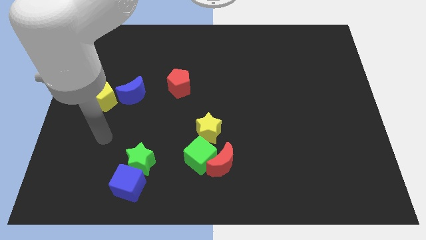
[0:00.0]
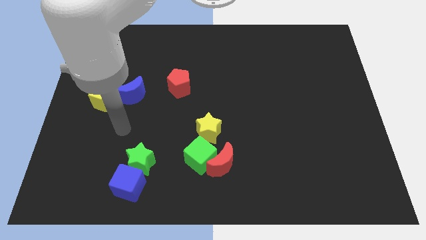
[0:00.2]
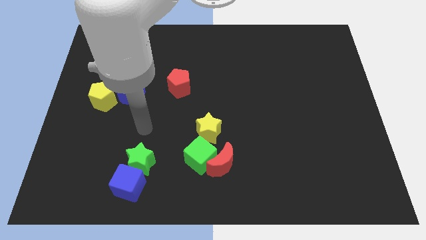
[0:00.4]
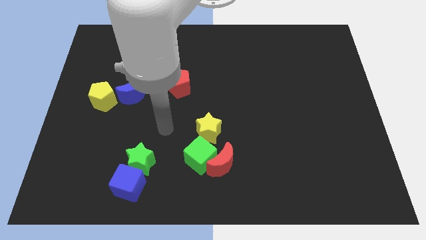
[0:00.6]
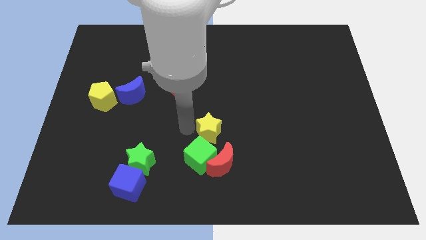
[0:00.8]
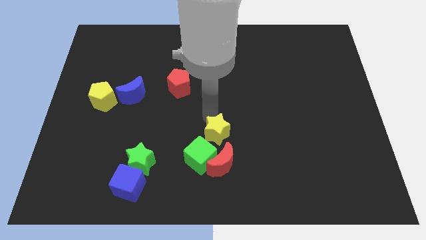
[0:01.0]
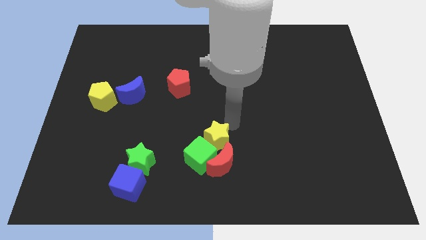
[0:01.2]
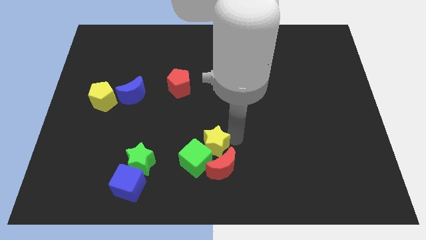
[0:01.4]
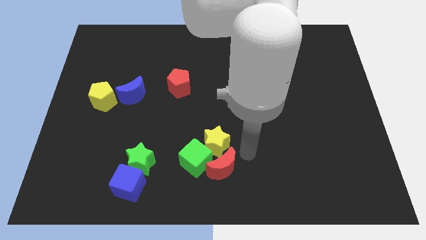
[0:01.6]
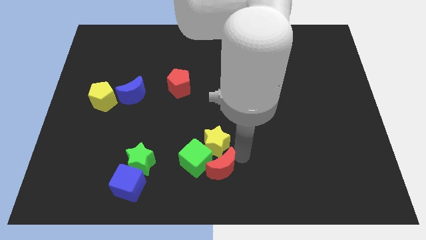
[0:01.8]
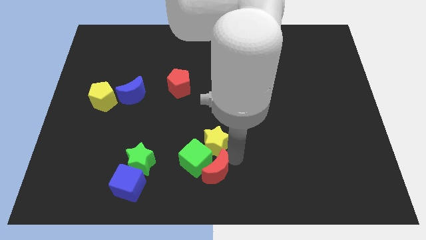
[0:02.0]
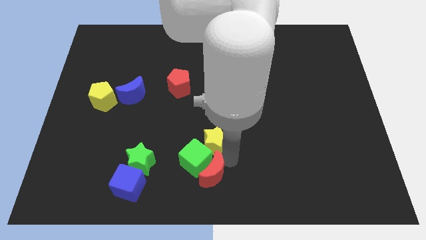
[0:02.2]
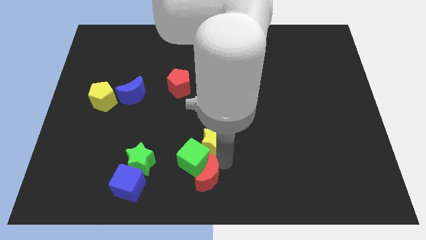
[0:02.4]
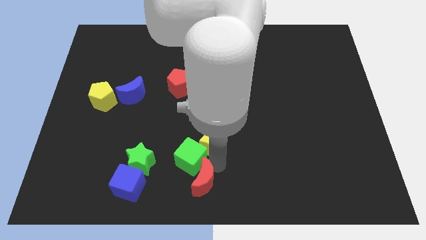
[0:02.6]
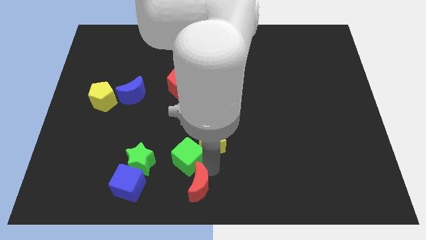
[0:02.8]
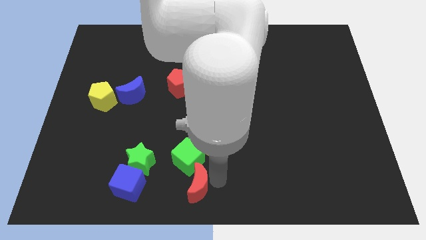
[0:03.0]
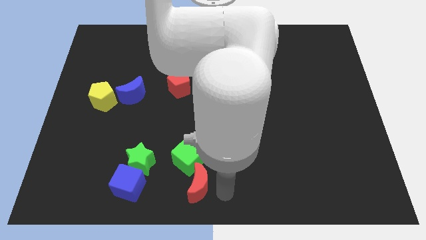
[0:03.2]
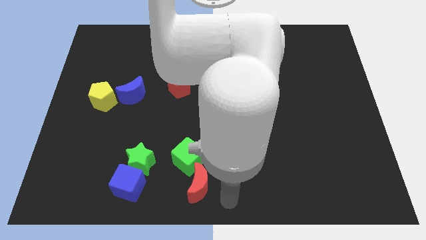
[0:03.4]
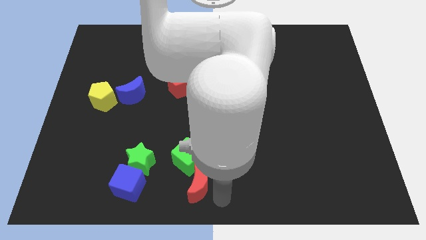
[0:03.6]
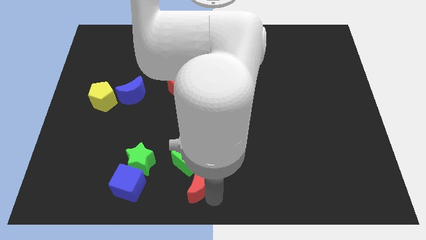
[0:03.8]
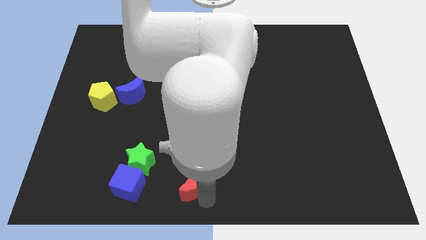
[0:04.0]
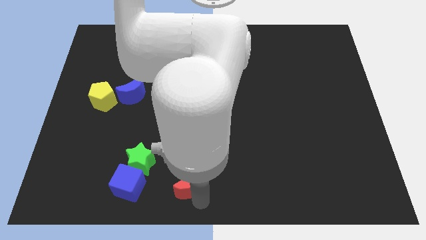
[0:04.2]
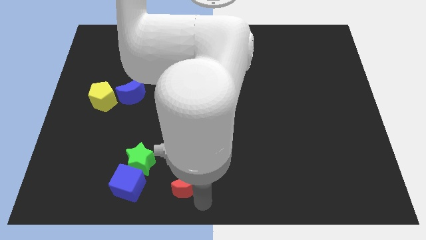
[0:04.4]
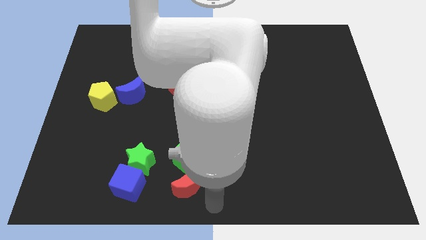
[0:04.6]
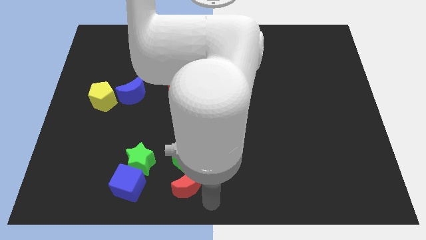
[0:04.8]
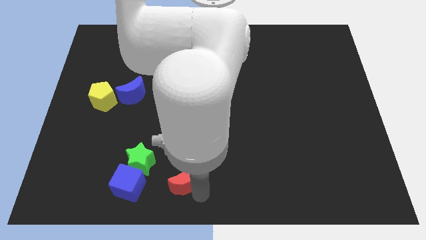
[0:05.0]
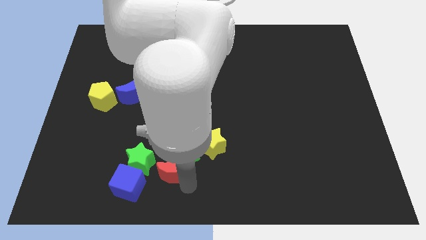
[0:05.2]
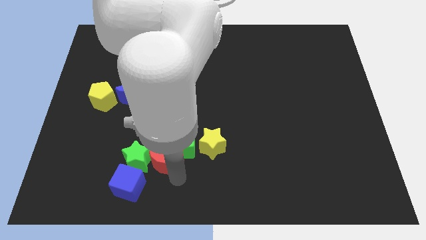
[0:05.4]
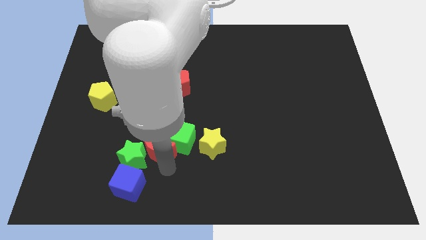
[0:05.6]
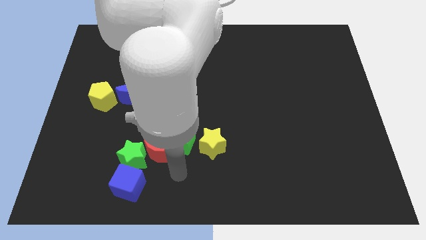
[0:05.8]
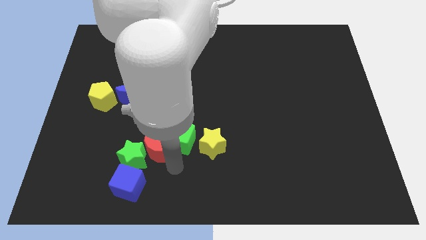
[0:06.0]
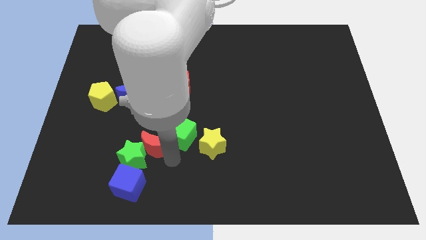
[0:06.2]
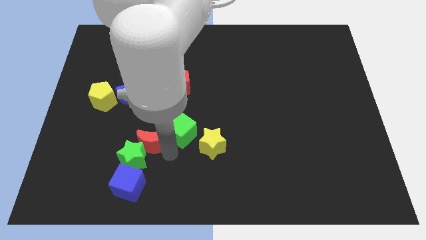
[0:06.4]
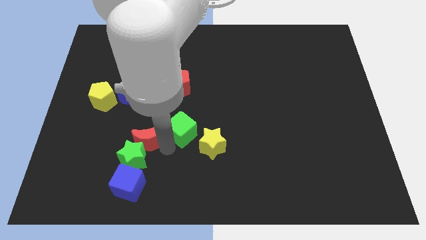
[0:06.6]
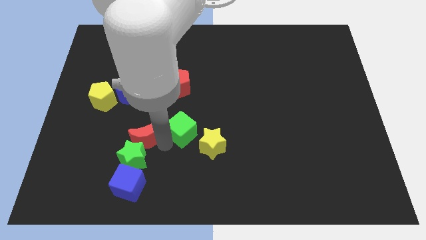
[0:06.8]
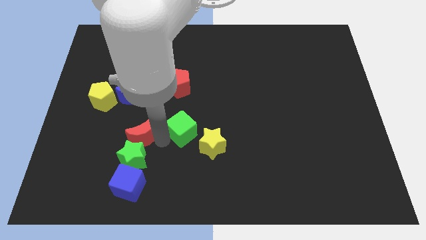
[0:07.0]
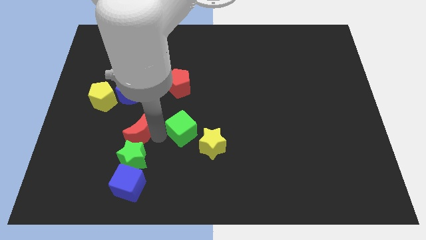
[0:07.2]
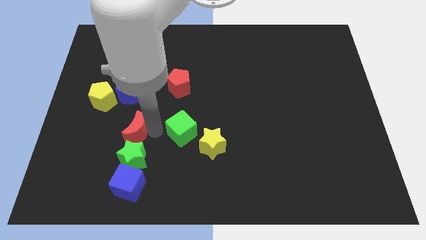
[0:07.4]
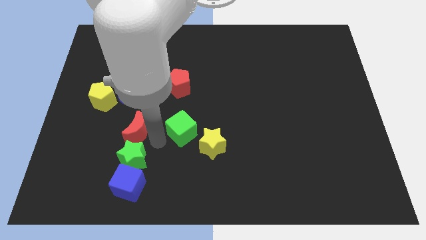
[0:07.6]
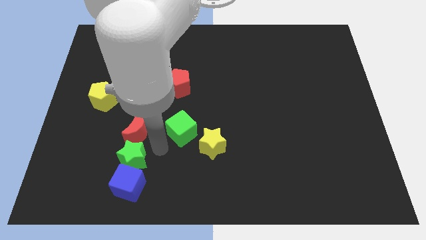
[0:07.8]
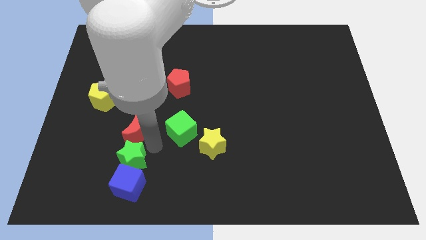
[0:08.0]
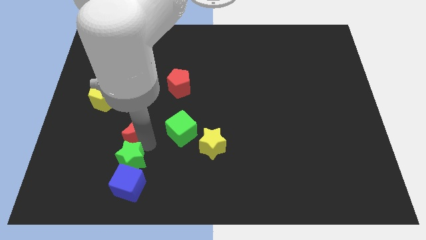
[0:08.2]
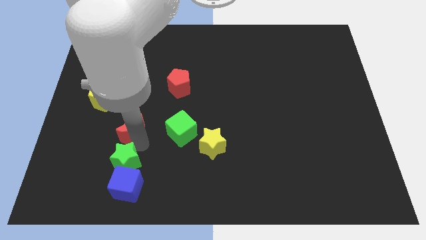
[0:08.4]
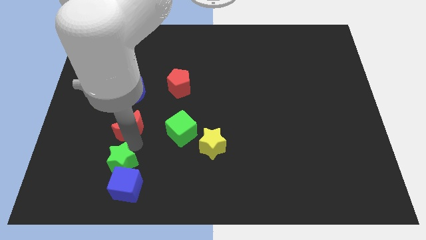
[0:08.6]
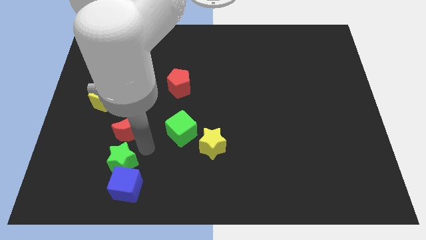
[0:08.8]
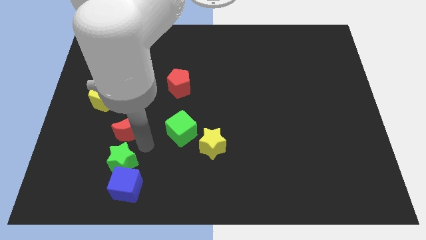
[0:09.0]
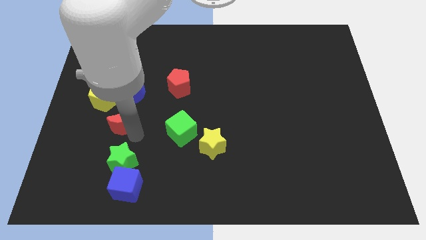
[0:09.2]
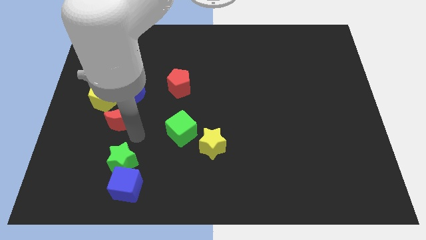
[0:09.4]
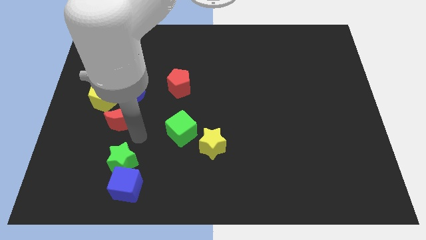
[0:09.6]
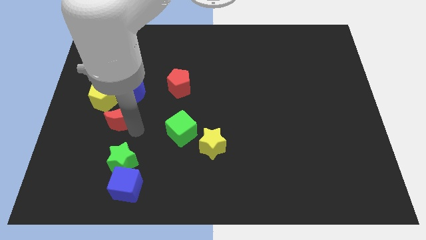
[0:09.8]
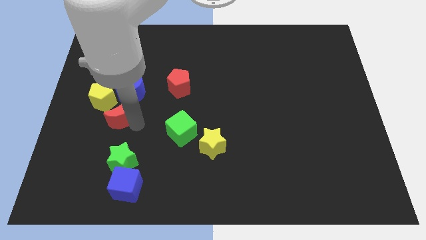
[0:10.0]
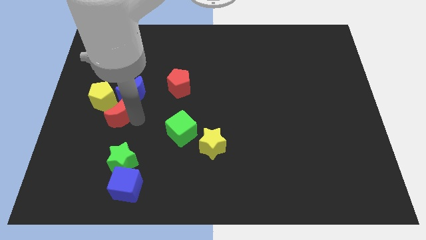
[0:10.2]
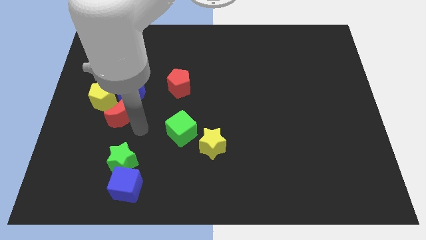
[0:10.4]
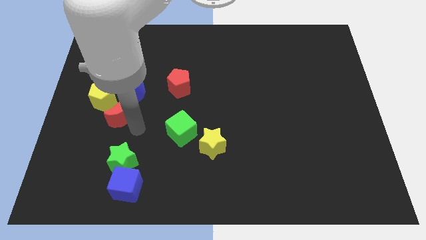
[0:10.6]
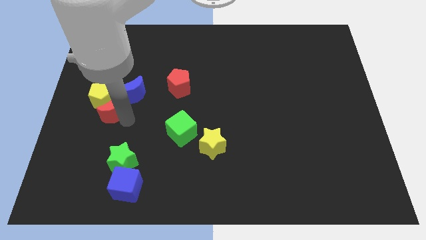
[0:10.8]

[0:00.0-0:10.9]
put the red moon next to the yellow pentagon

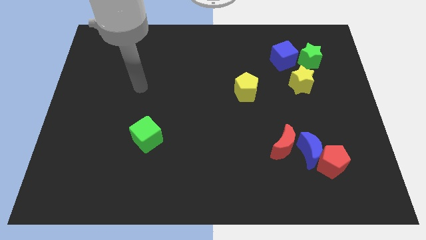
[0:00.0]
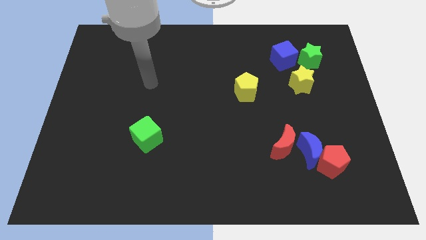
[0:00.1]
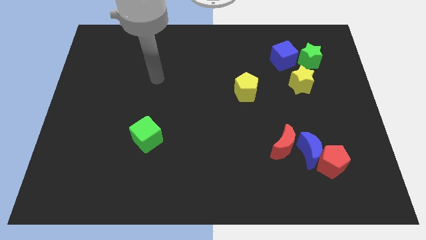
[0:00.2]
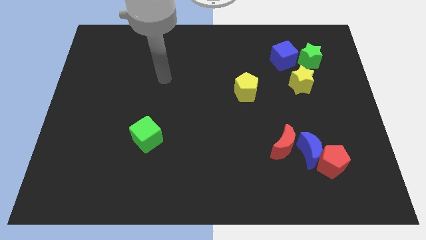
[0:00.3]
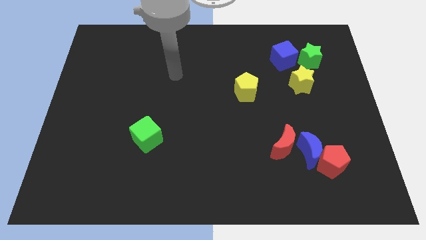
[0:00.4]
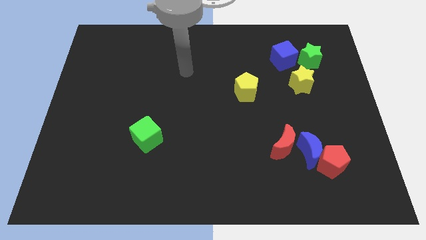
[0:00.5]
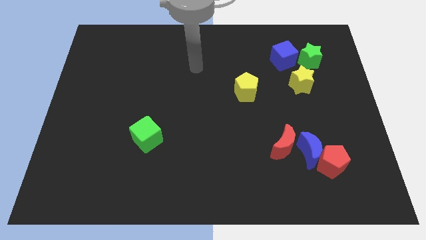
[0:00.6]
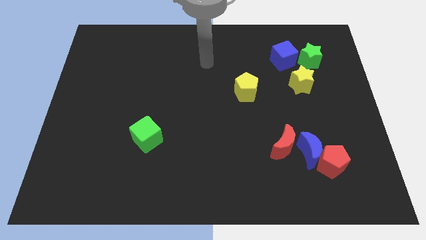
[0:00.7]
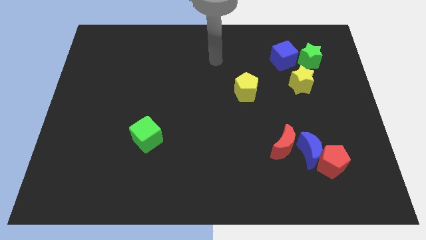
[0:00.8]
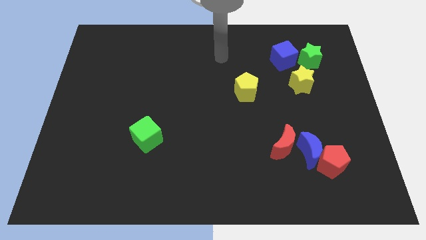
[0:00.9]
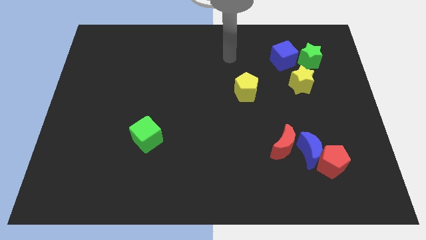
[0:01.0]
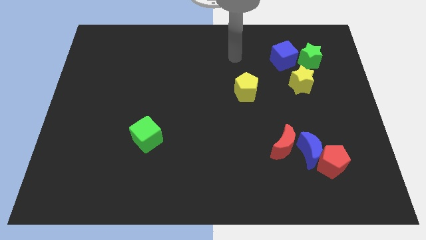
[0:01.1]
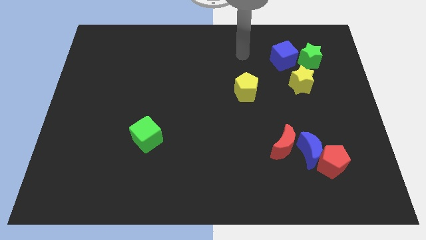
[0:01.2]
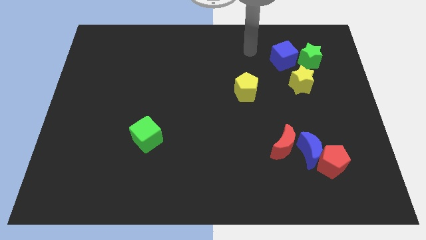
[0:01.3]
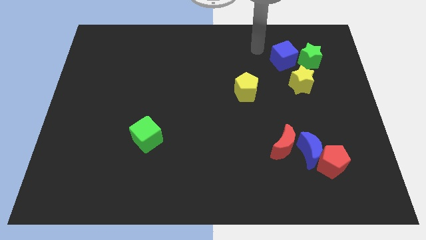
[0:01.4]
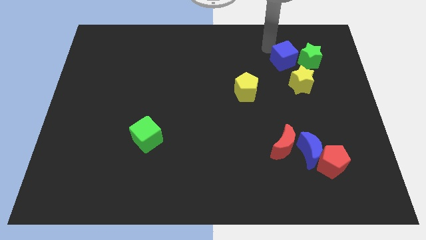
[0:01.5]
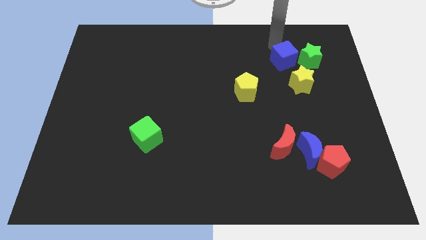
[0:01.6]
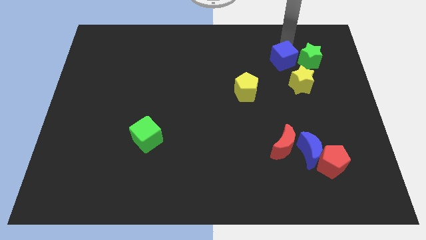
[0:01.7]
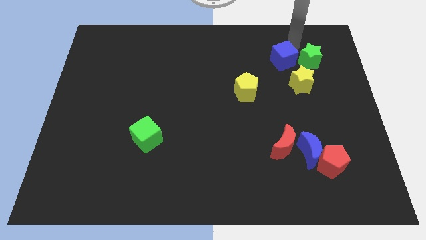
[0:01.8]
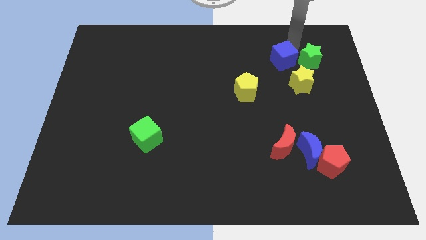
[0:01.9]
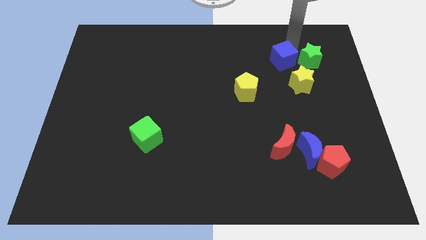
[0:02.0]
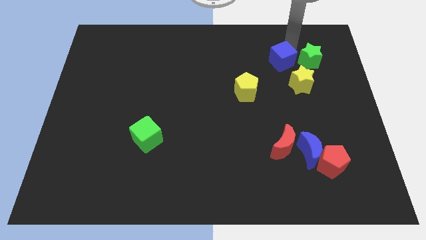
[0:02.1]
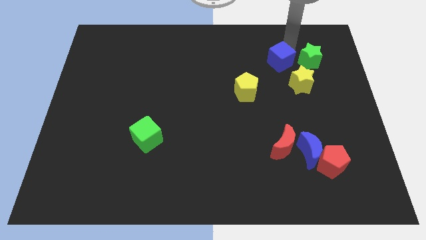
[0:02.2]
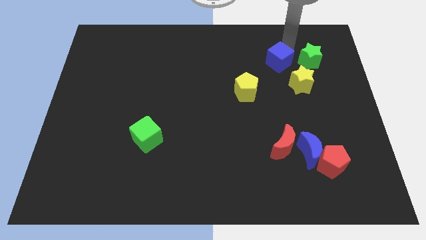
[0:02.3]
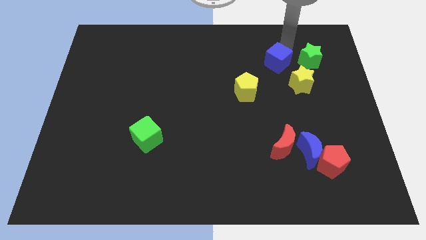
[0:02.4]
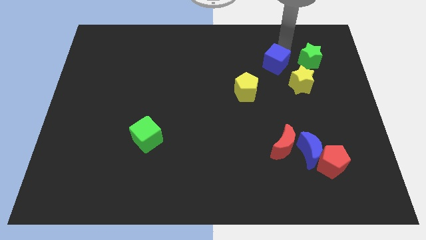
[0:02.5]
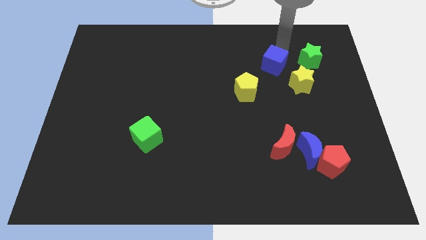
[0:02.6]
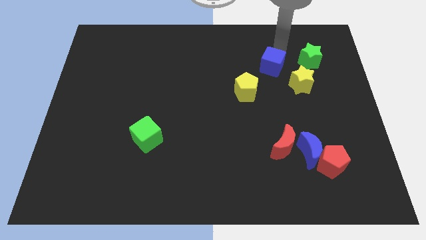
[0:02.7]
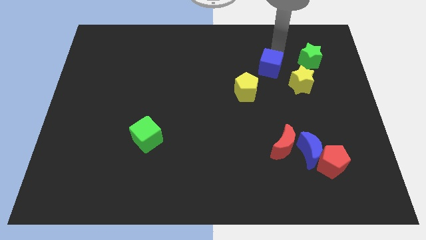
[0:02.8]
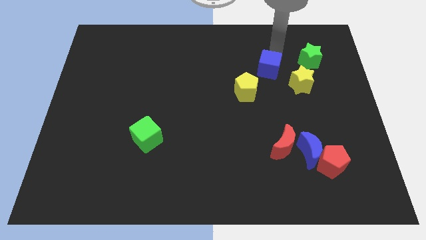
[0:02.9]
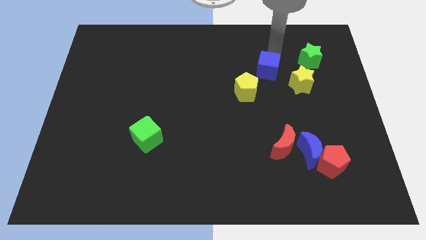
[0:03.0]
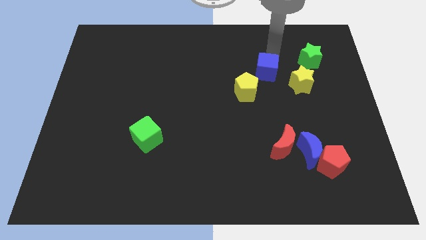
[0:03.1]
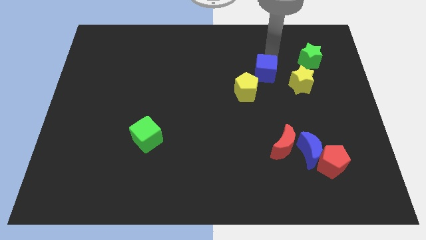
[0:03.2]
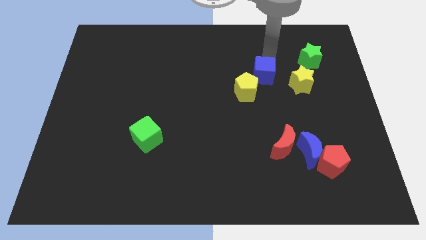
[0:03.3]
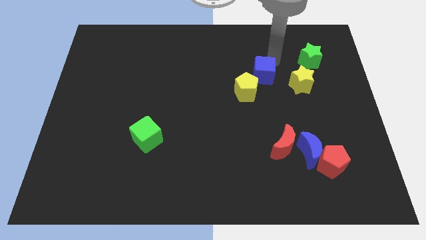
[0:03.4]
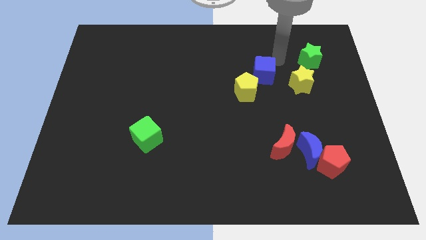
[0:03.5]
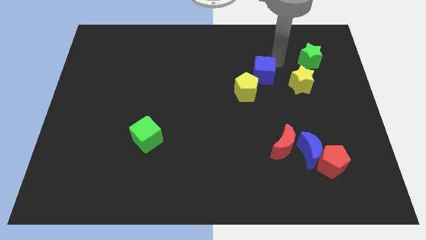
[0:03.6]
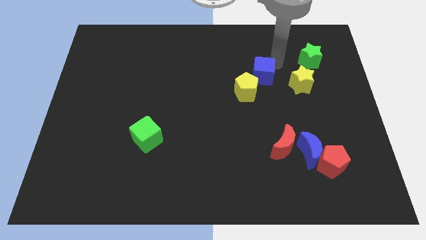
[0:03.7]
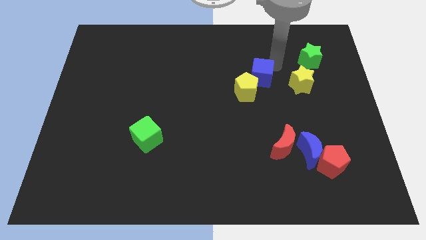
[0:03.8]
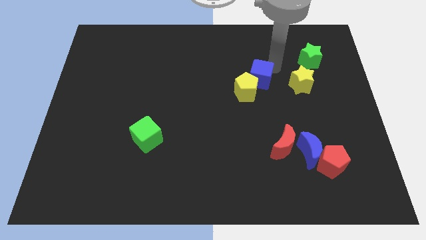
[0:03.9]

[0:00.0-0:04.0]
put the blue cube close to the yellow pentagon
